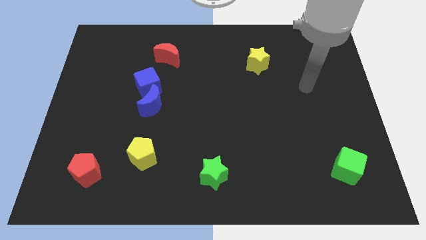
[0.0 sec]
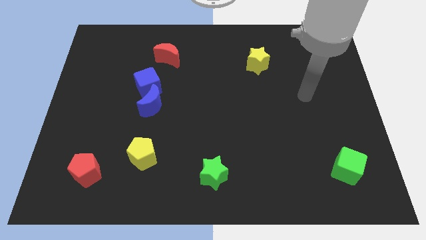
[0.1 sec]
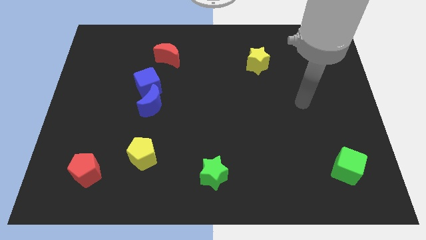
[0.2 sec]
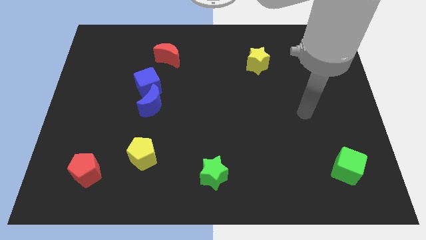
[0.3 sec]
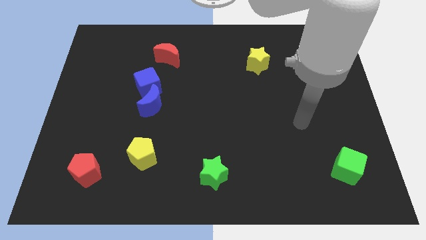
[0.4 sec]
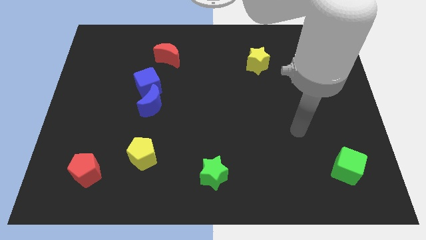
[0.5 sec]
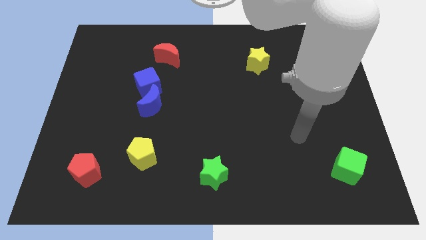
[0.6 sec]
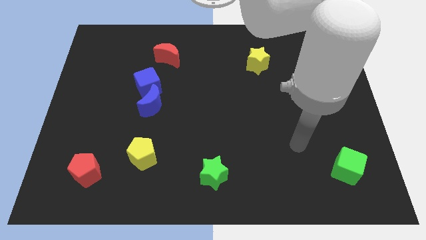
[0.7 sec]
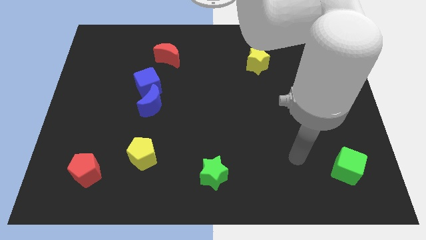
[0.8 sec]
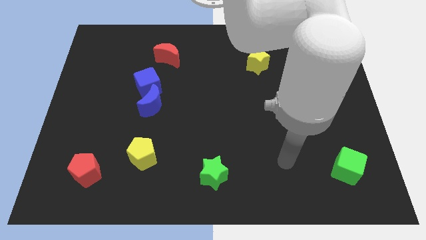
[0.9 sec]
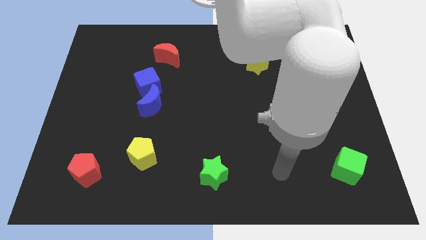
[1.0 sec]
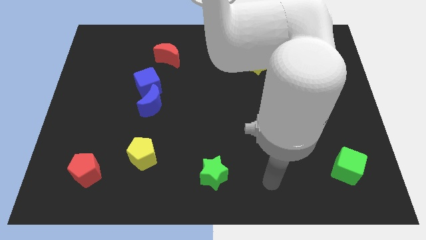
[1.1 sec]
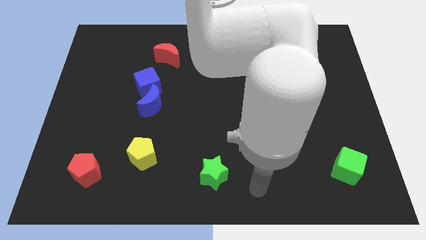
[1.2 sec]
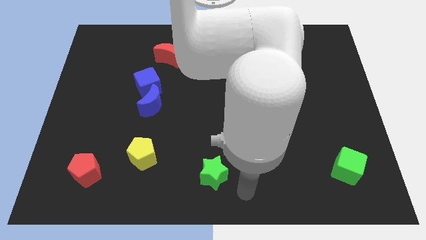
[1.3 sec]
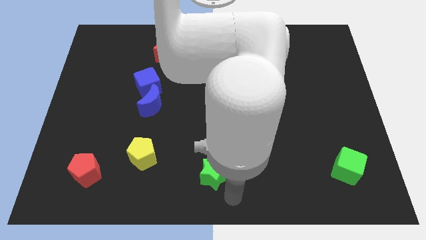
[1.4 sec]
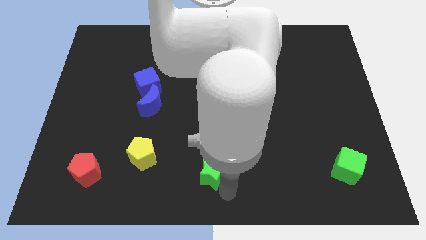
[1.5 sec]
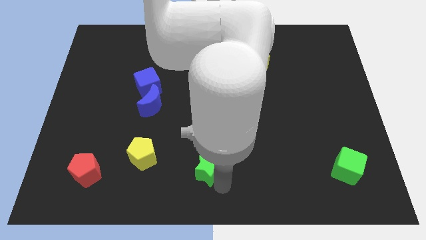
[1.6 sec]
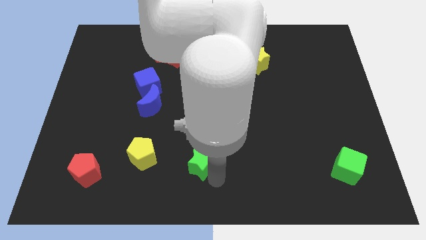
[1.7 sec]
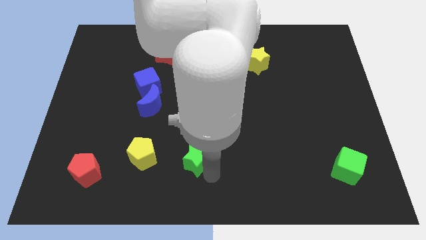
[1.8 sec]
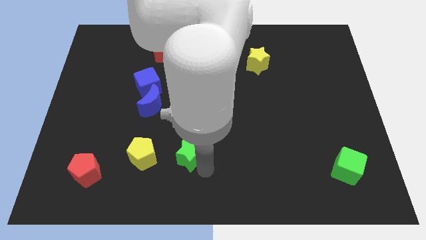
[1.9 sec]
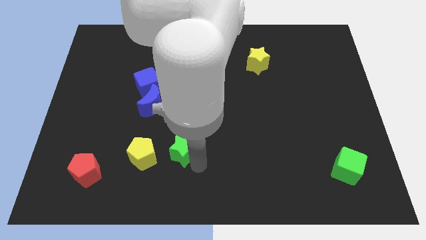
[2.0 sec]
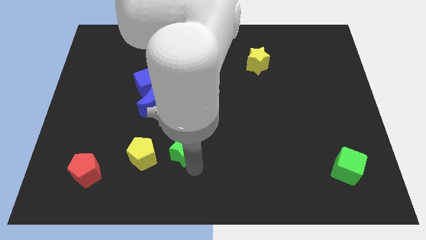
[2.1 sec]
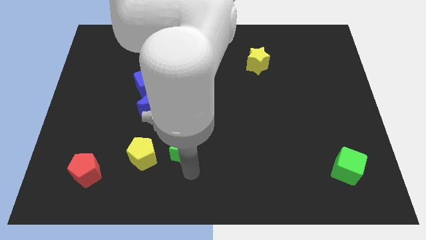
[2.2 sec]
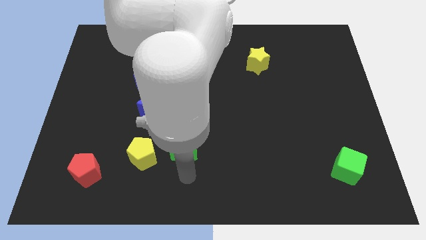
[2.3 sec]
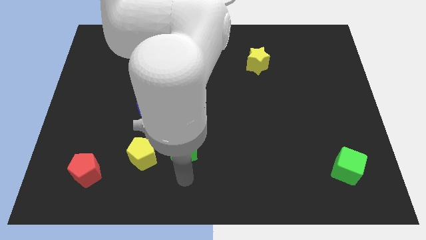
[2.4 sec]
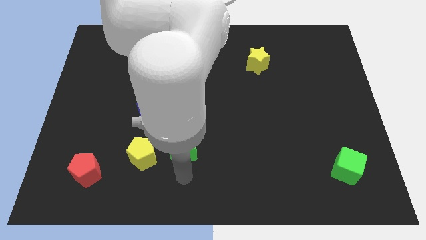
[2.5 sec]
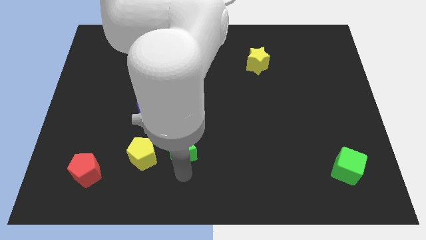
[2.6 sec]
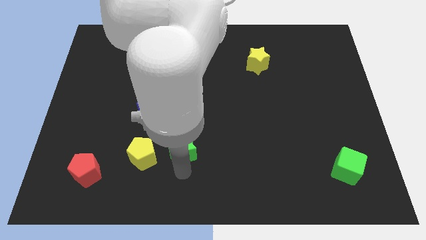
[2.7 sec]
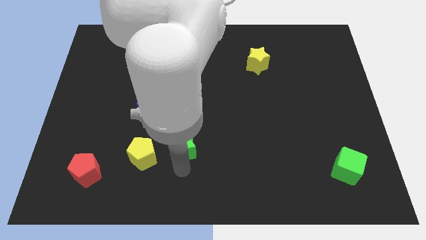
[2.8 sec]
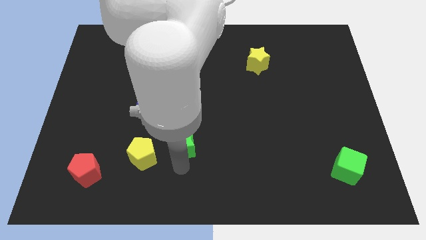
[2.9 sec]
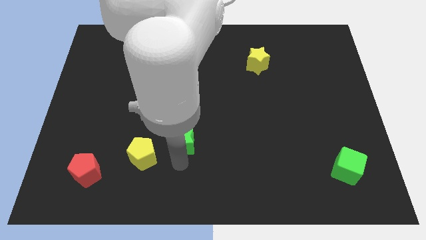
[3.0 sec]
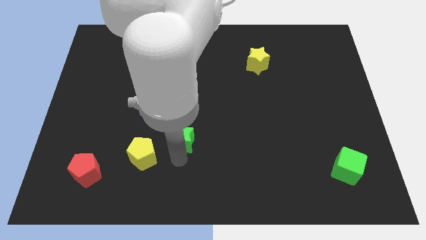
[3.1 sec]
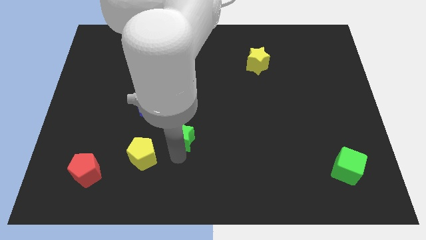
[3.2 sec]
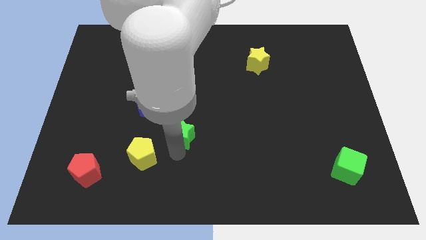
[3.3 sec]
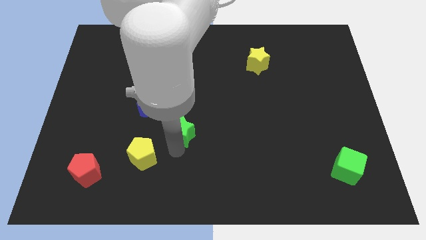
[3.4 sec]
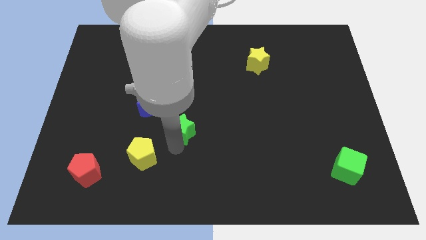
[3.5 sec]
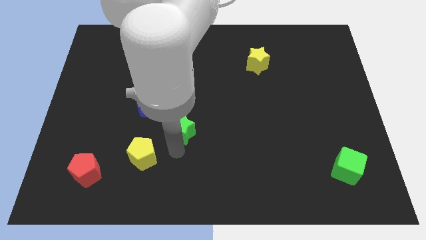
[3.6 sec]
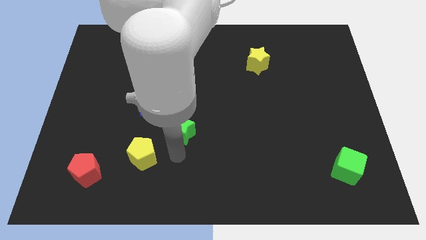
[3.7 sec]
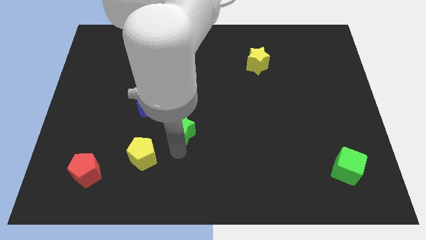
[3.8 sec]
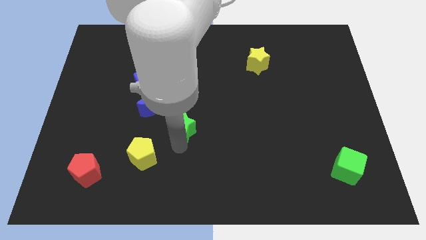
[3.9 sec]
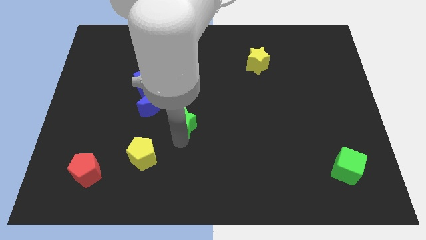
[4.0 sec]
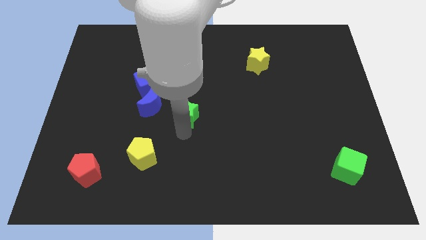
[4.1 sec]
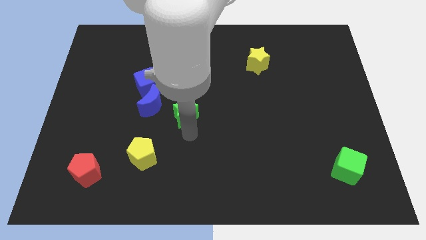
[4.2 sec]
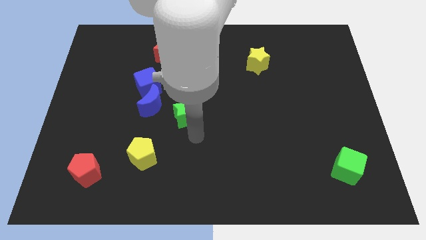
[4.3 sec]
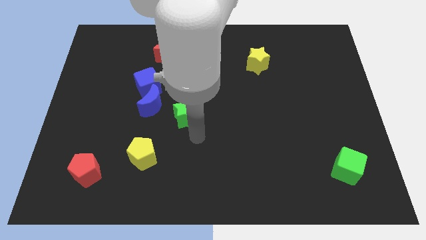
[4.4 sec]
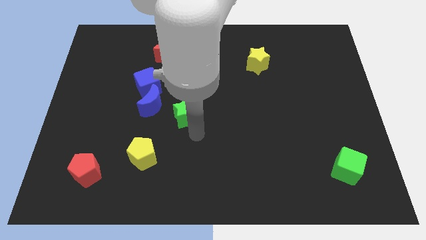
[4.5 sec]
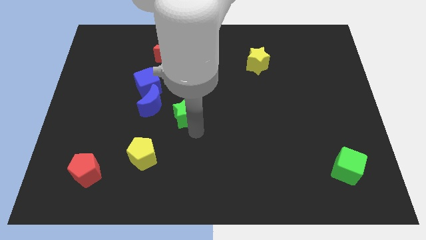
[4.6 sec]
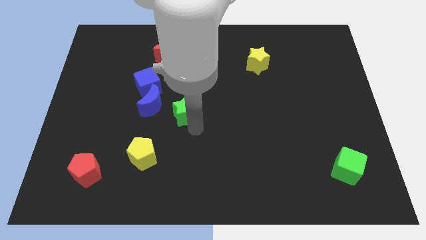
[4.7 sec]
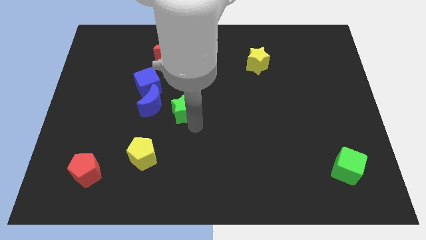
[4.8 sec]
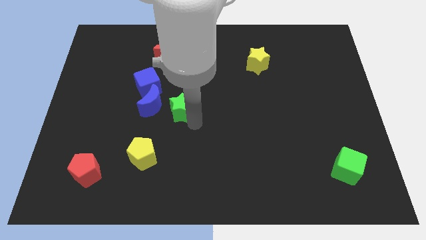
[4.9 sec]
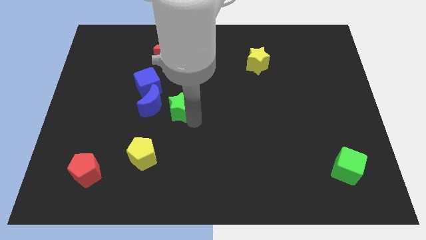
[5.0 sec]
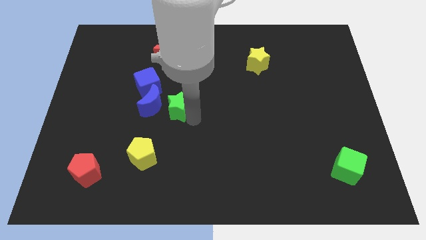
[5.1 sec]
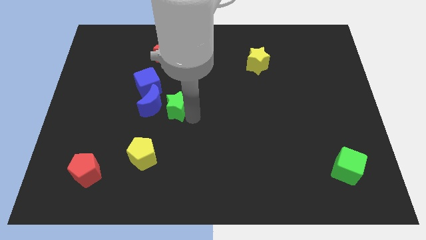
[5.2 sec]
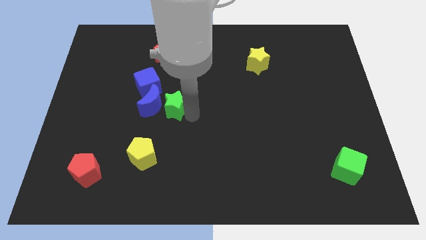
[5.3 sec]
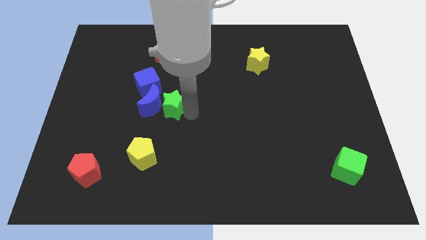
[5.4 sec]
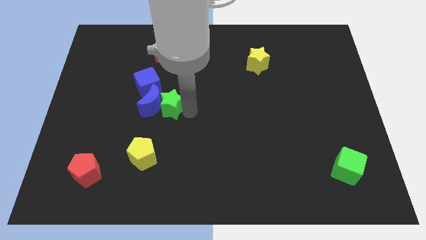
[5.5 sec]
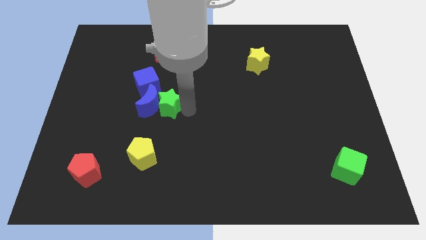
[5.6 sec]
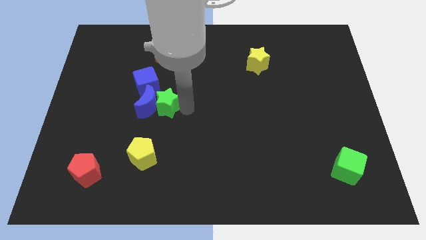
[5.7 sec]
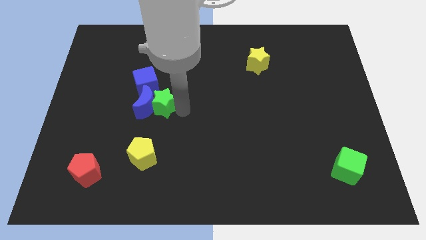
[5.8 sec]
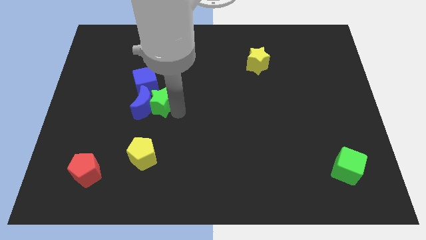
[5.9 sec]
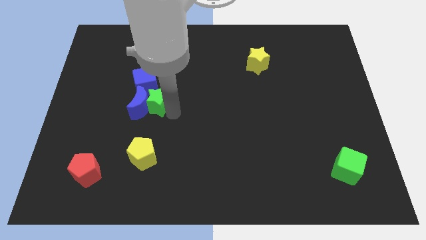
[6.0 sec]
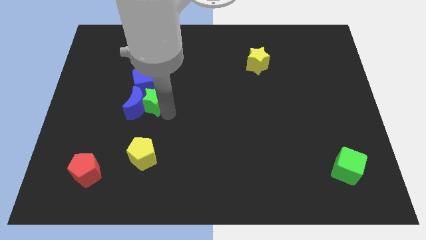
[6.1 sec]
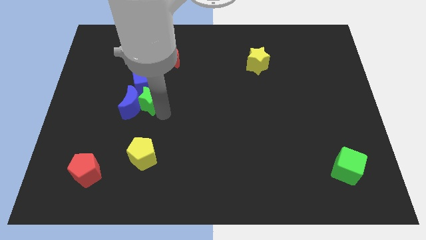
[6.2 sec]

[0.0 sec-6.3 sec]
move the green star close to the blue cube

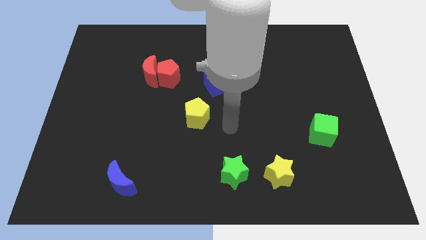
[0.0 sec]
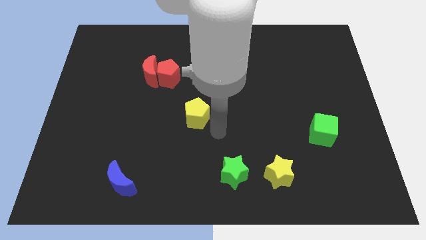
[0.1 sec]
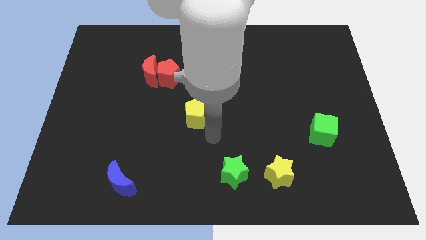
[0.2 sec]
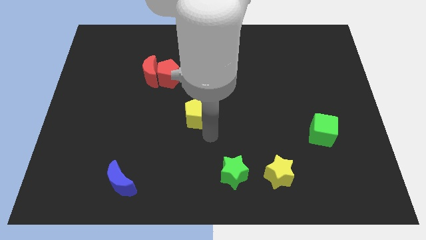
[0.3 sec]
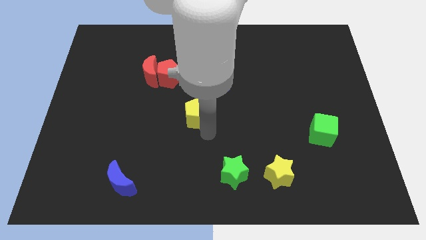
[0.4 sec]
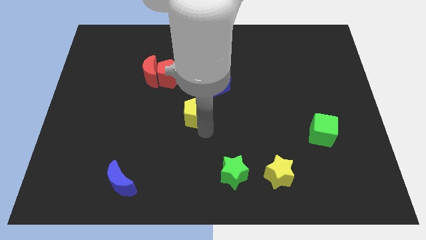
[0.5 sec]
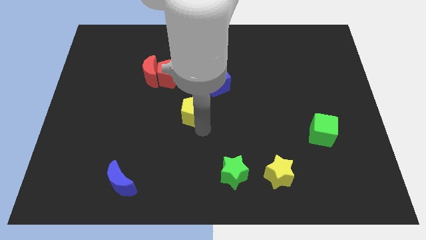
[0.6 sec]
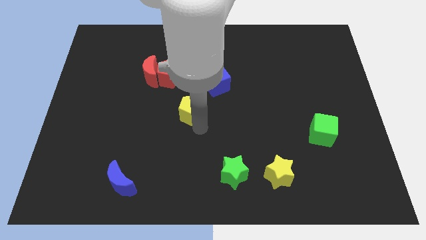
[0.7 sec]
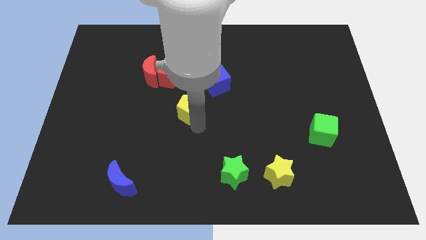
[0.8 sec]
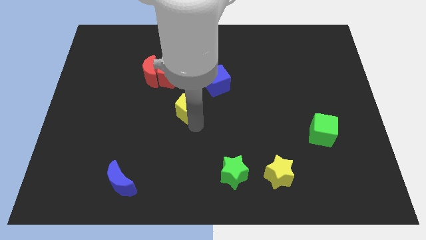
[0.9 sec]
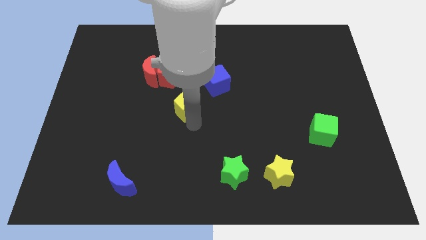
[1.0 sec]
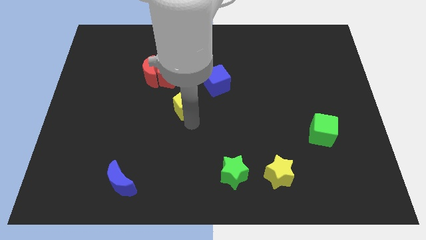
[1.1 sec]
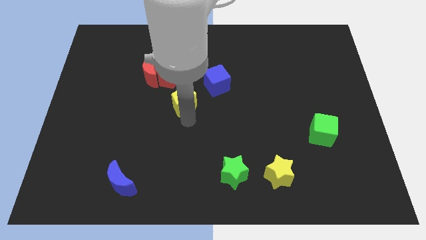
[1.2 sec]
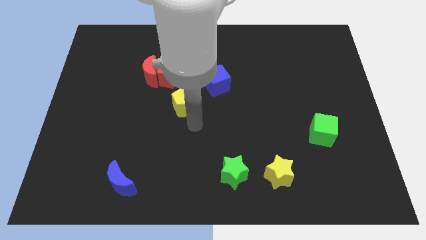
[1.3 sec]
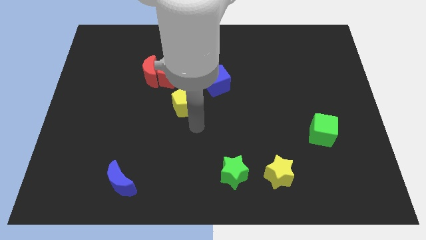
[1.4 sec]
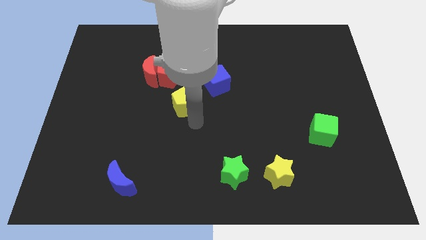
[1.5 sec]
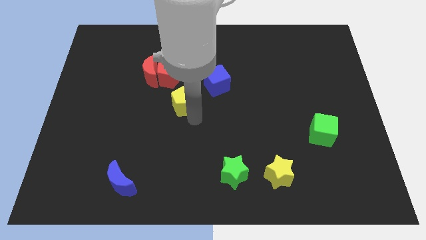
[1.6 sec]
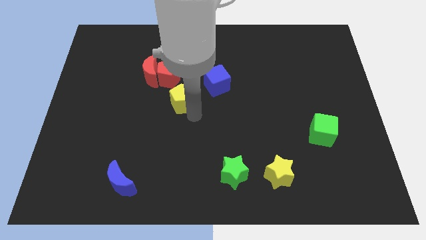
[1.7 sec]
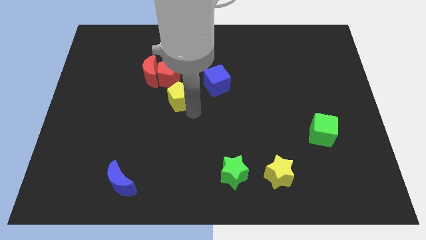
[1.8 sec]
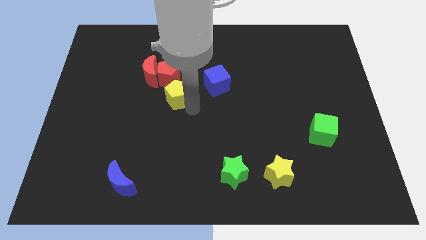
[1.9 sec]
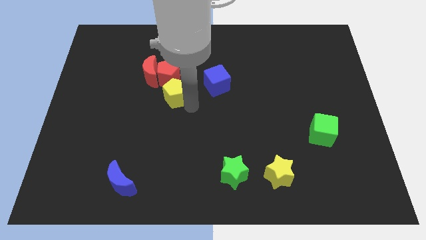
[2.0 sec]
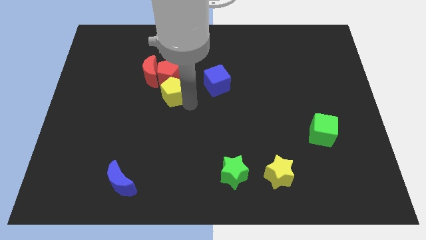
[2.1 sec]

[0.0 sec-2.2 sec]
slide the yellow pentagon towards the red pentagon
